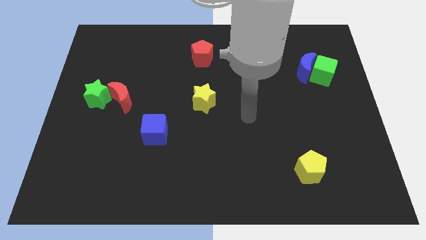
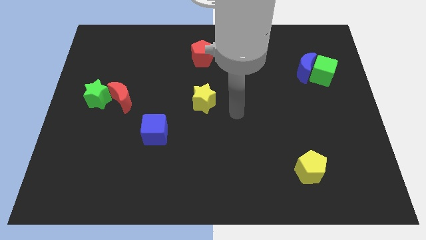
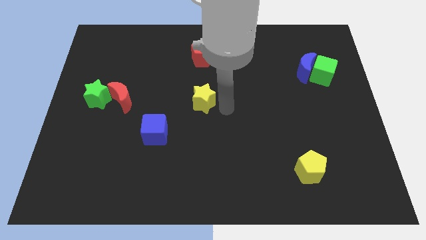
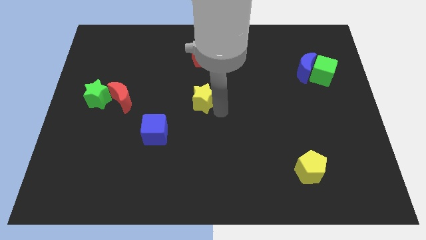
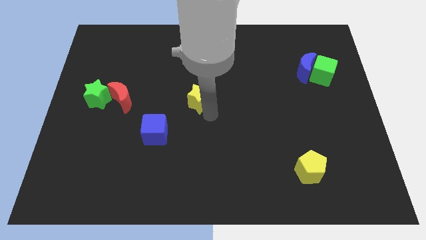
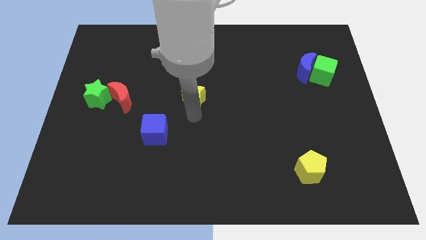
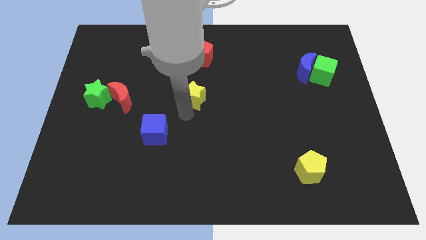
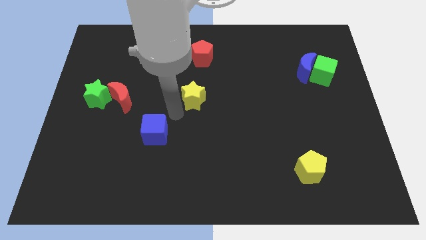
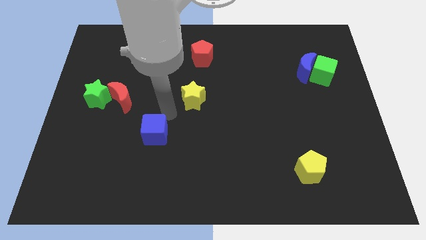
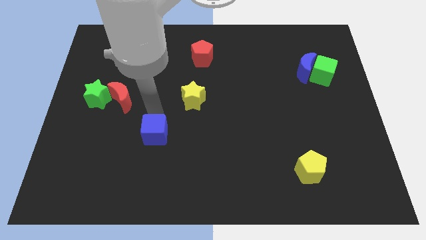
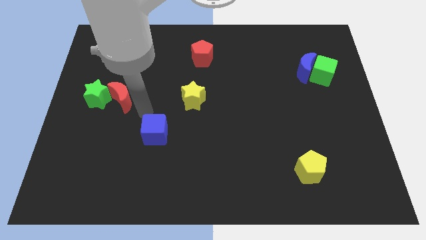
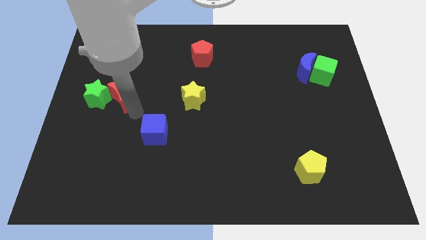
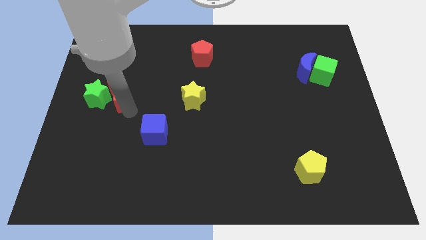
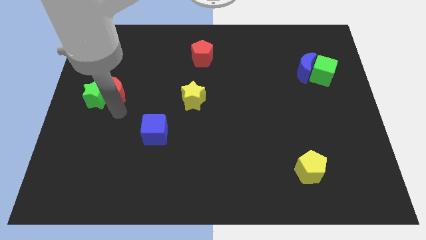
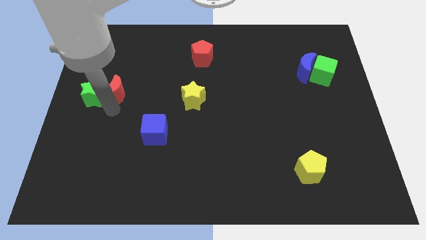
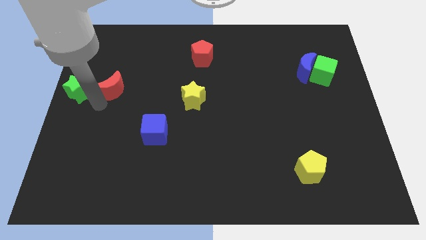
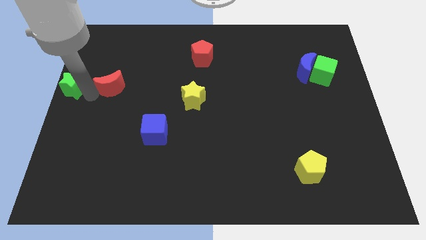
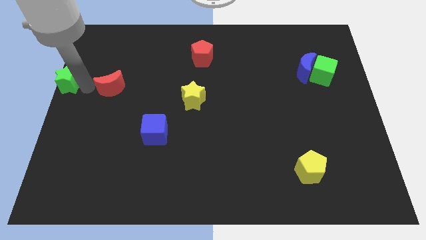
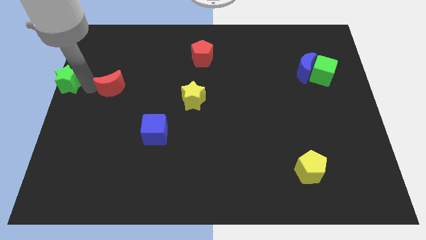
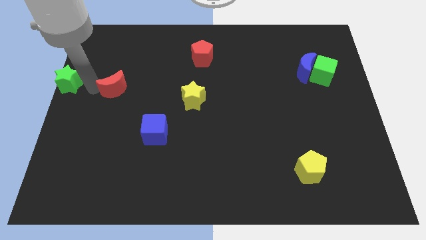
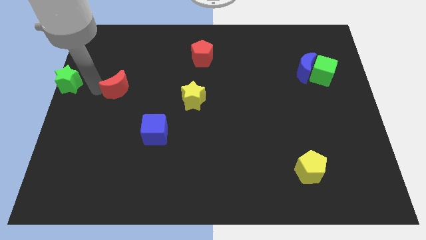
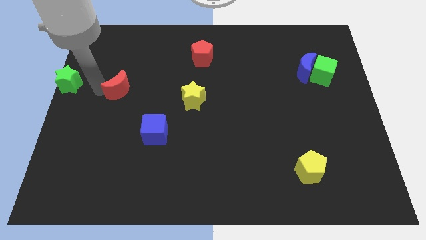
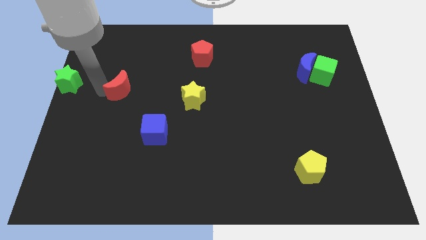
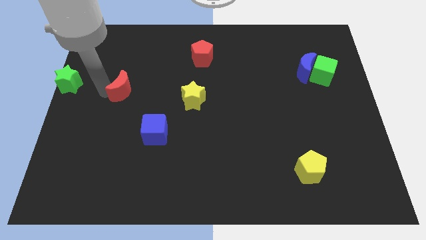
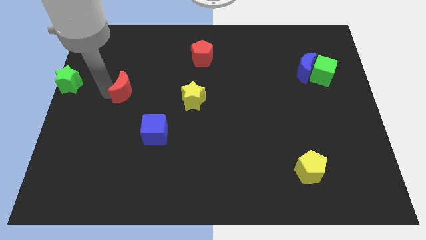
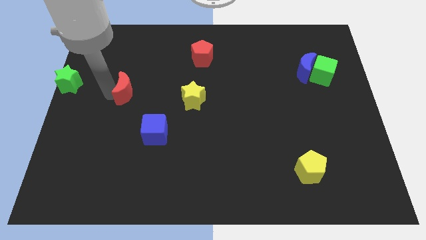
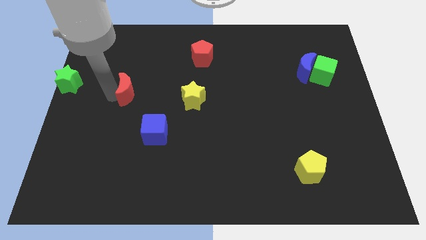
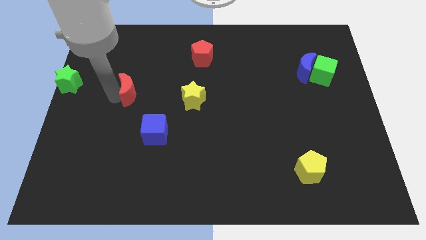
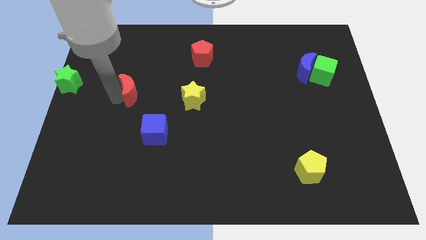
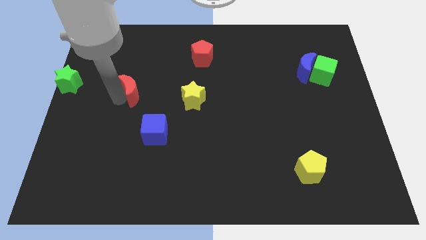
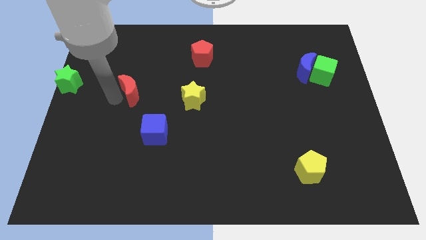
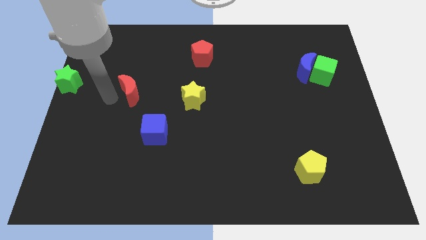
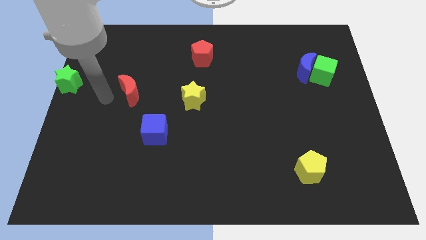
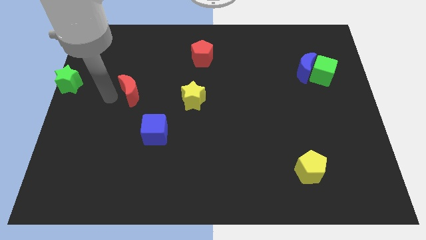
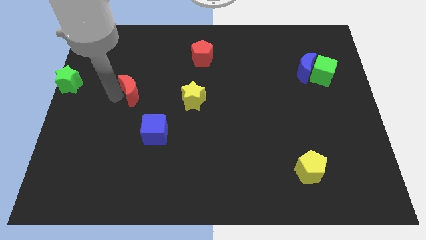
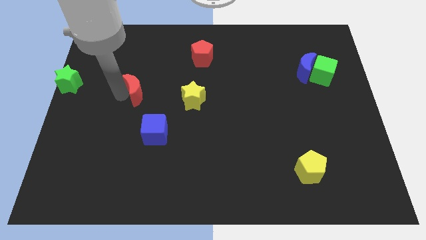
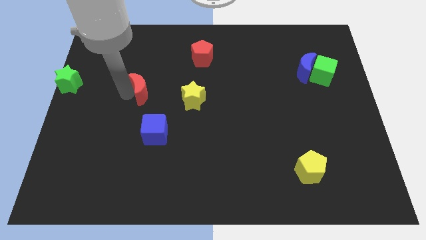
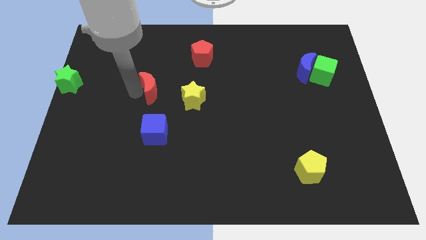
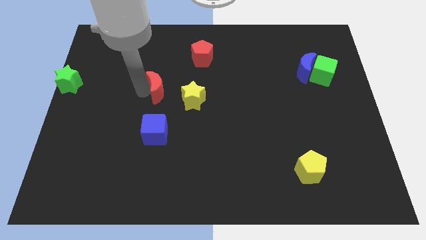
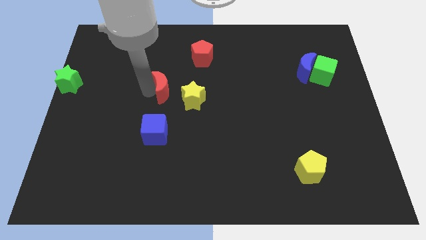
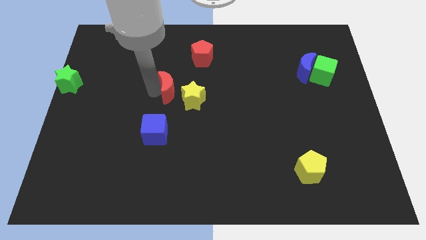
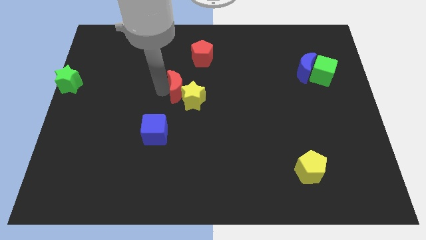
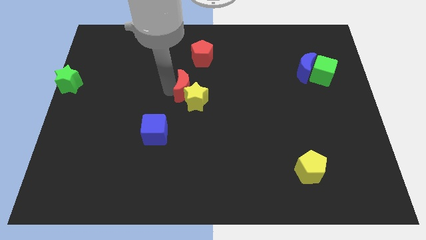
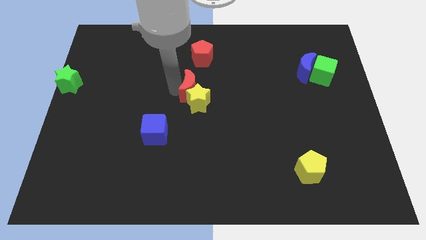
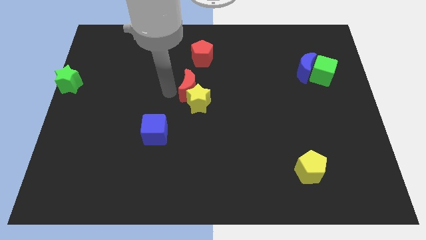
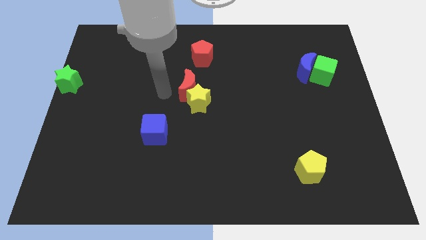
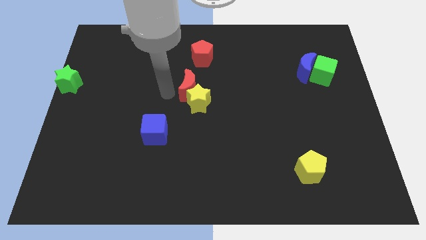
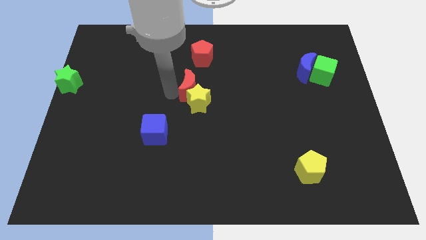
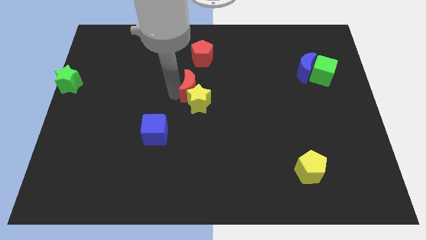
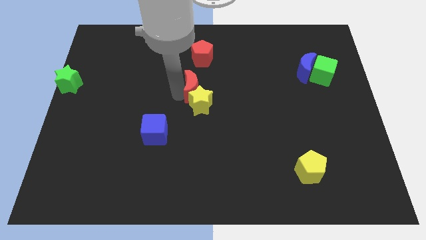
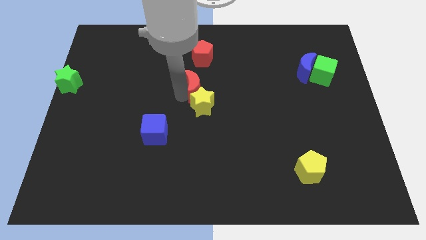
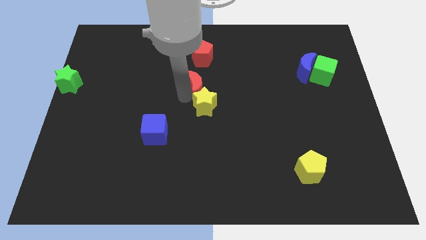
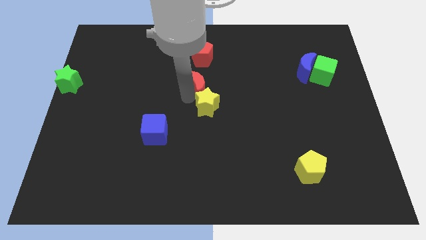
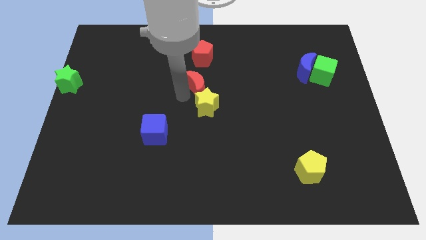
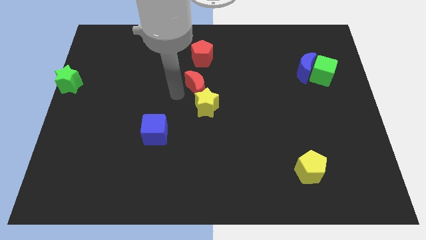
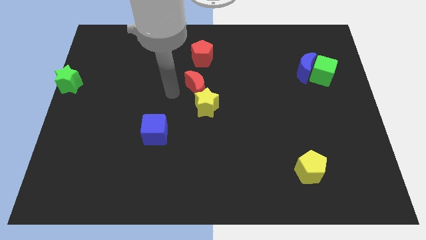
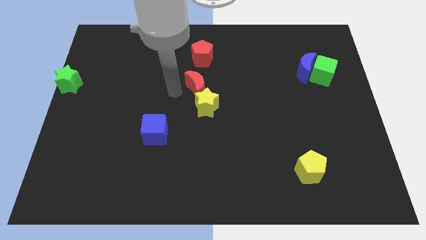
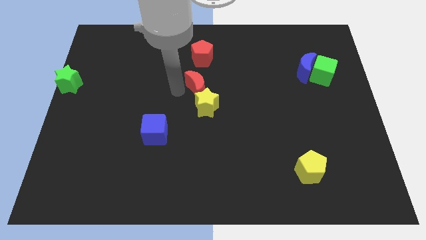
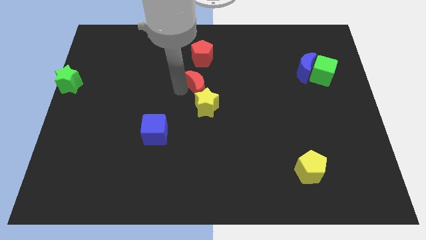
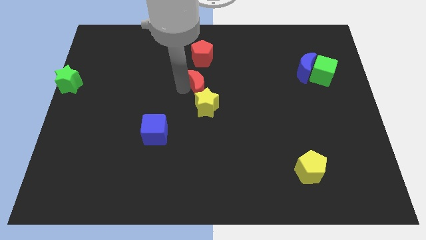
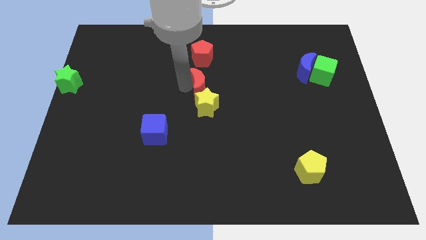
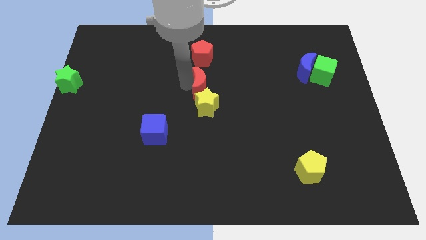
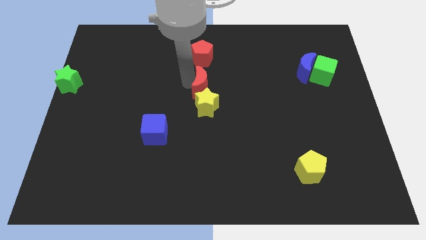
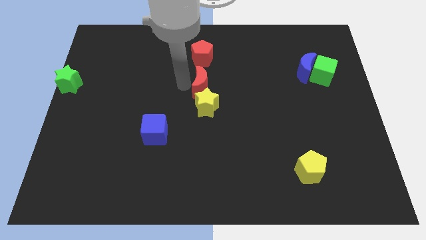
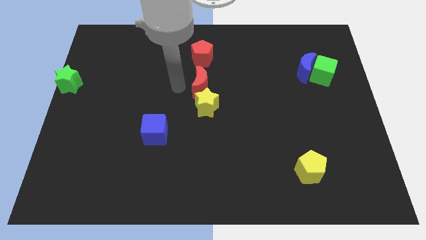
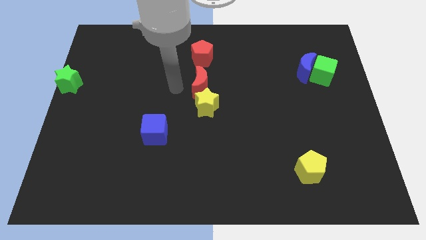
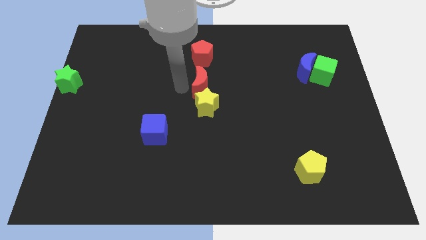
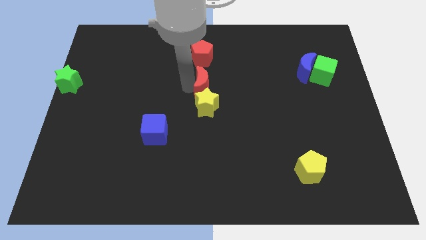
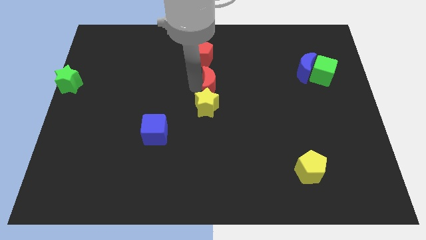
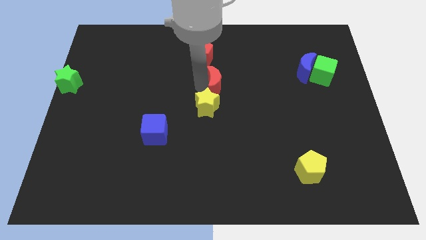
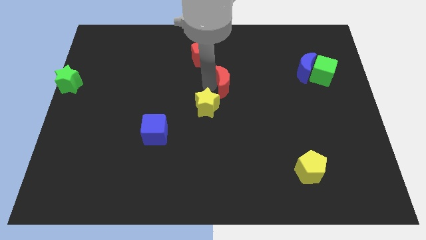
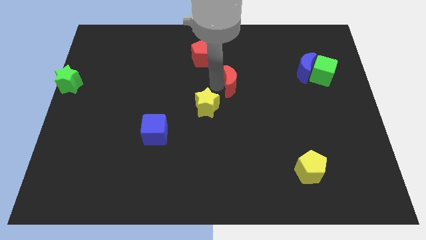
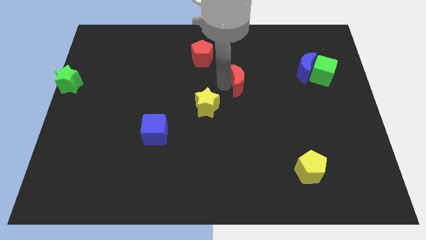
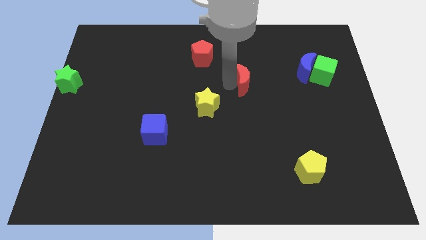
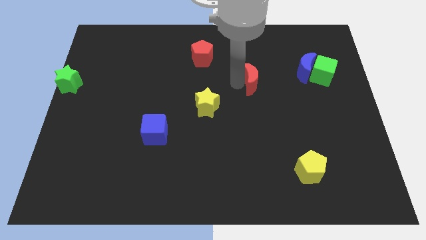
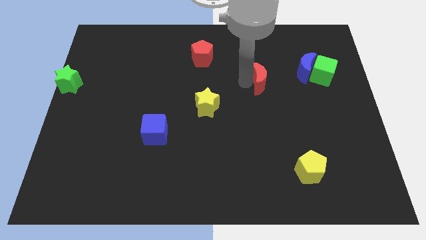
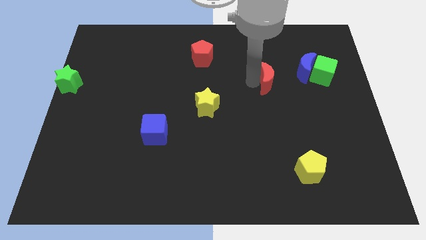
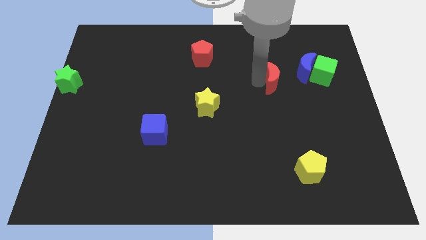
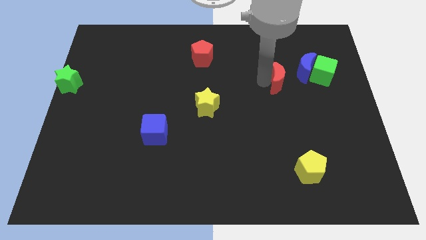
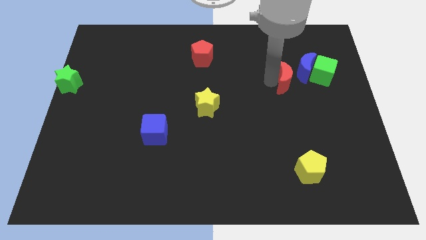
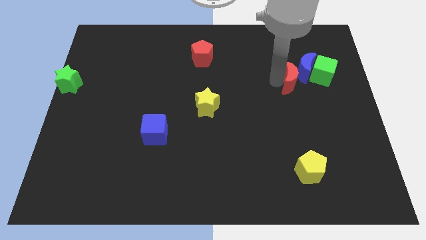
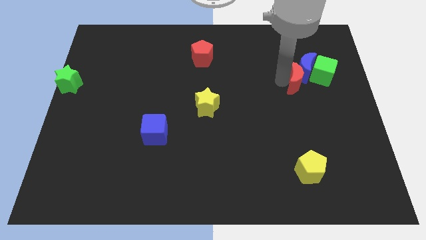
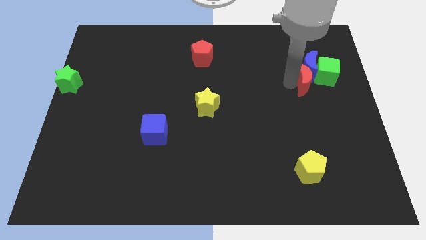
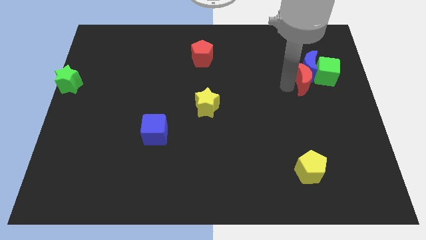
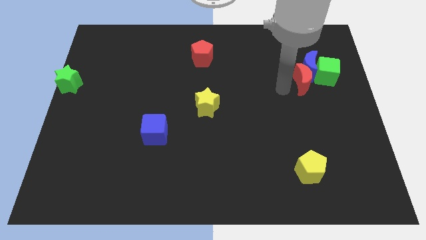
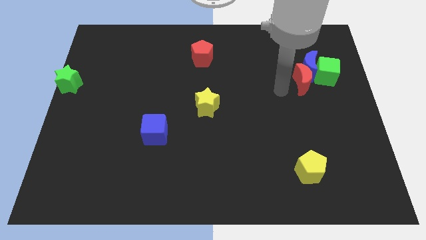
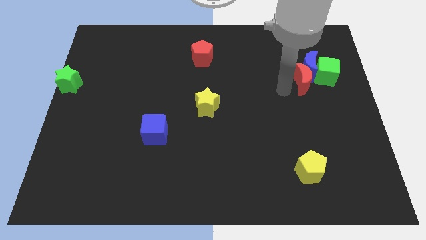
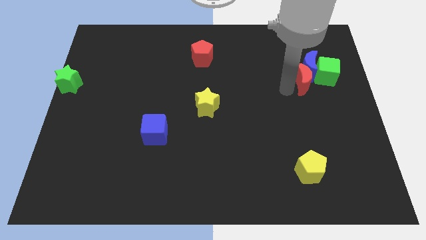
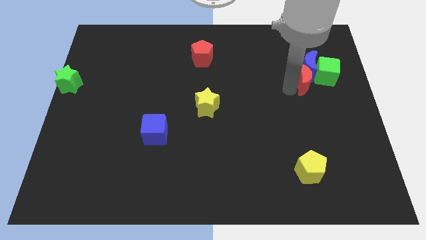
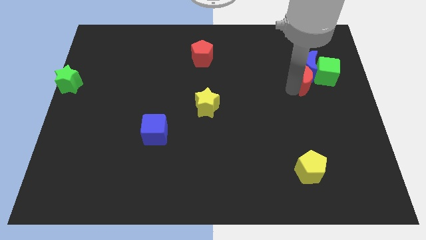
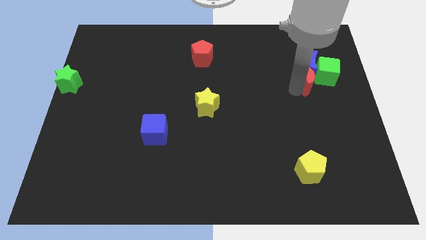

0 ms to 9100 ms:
put the red moon to the green cube
